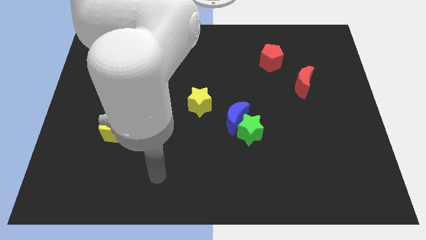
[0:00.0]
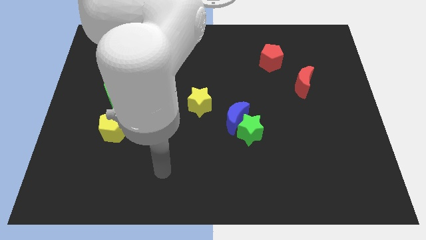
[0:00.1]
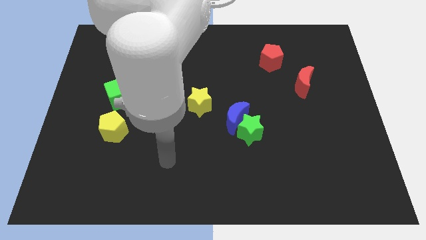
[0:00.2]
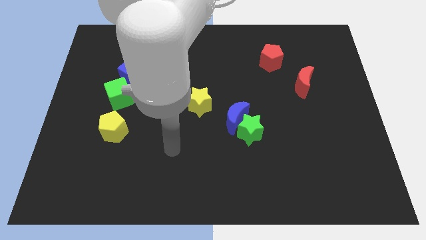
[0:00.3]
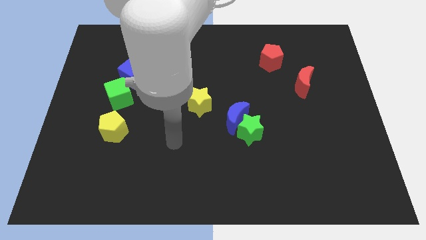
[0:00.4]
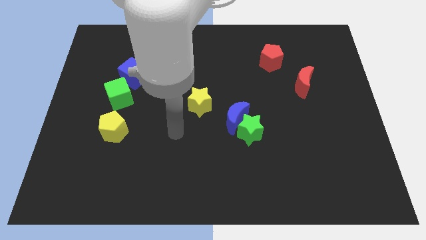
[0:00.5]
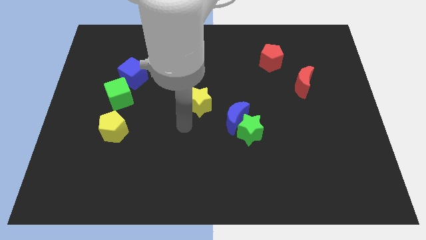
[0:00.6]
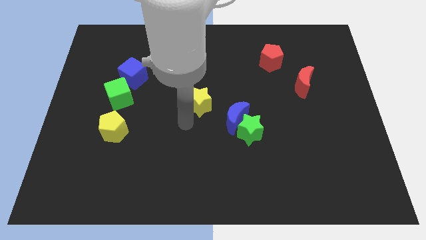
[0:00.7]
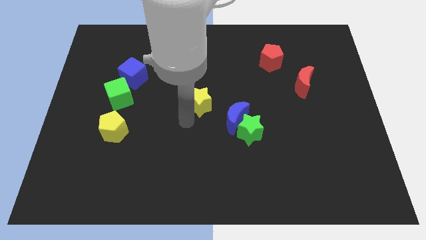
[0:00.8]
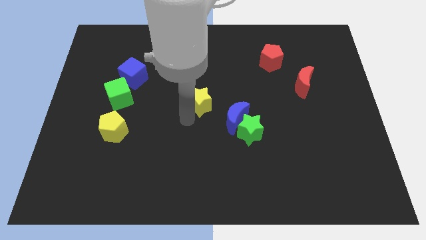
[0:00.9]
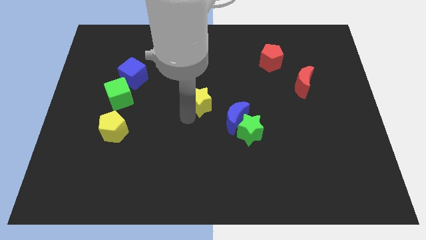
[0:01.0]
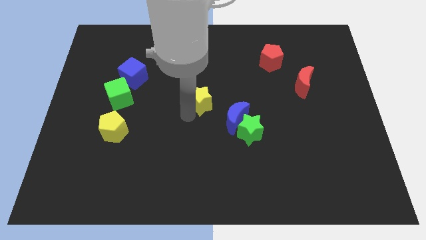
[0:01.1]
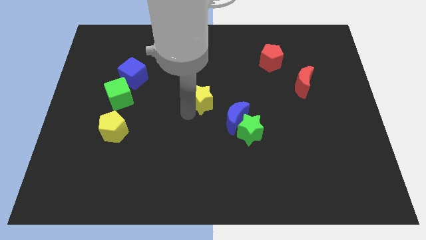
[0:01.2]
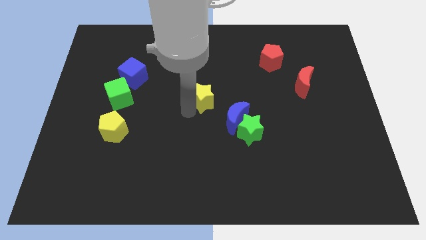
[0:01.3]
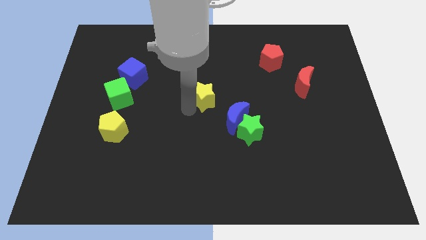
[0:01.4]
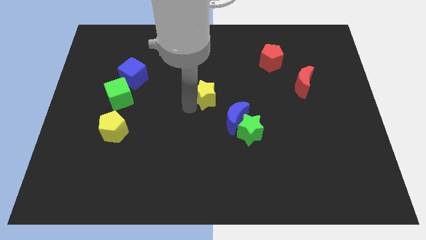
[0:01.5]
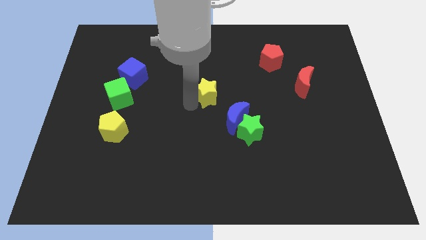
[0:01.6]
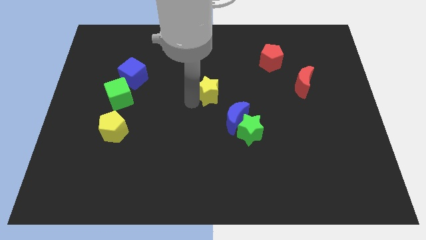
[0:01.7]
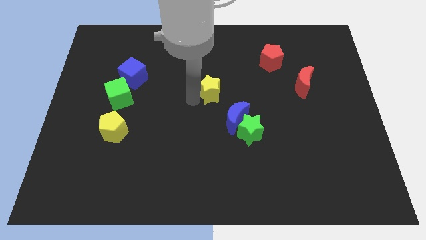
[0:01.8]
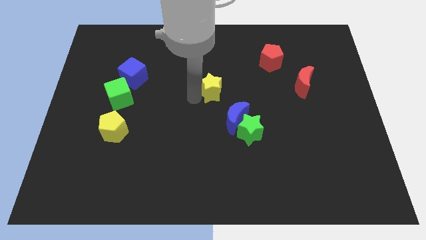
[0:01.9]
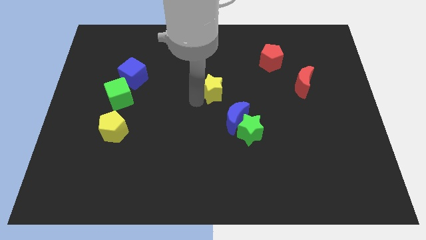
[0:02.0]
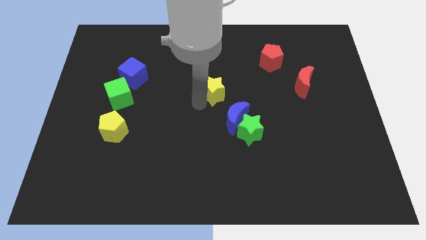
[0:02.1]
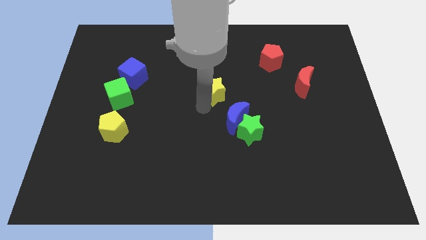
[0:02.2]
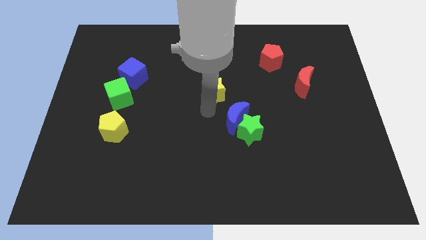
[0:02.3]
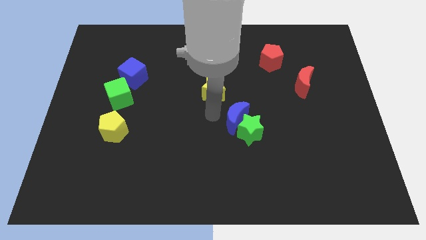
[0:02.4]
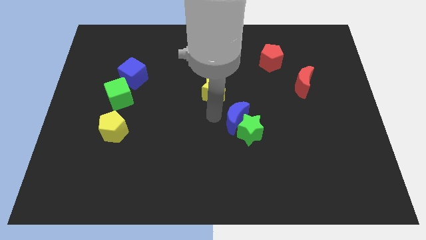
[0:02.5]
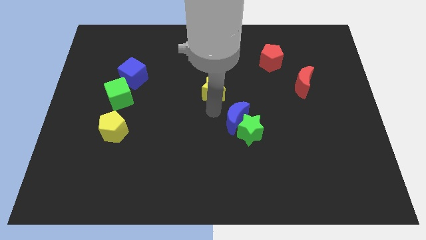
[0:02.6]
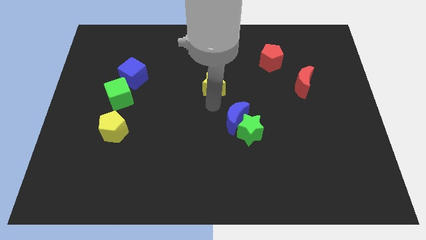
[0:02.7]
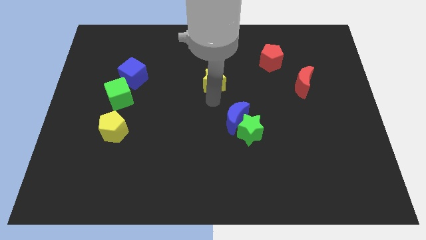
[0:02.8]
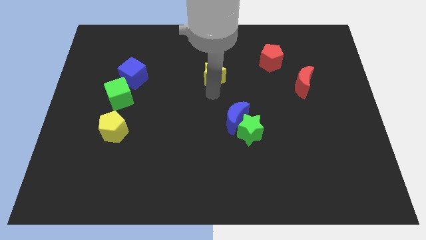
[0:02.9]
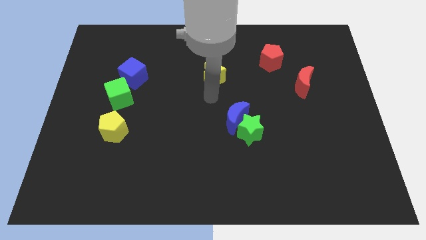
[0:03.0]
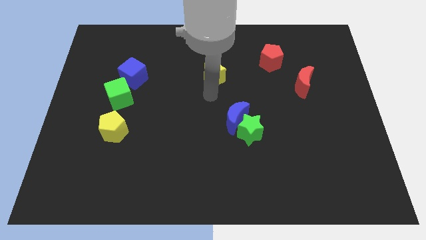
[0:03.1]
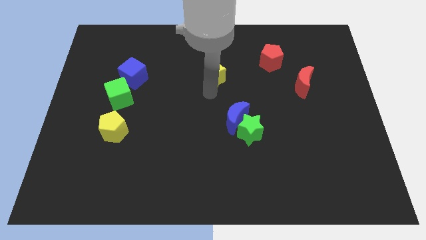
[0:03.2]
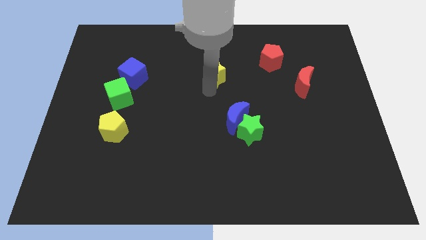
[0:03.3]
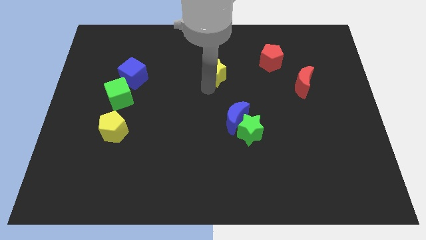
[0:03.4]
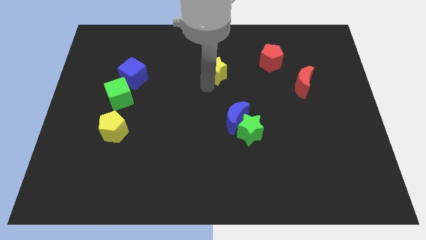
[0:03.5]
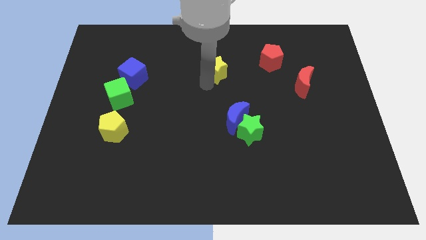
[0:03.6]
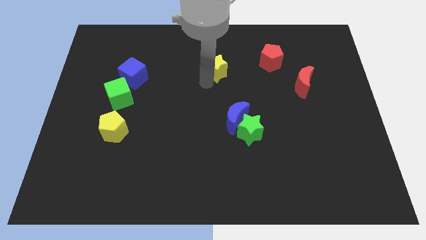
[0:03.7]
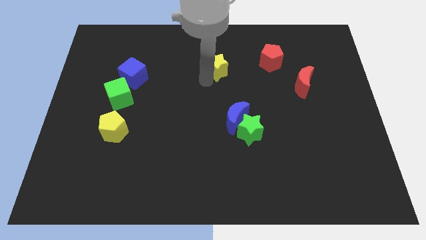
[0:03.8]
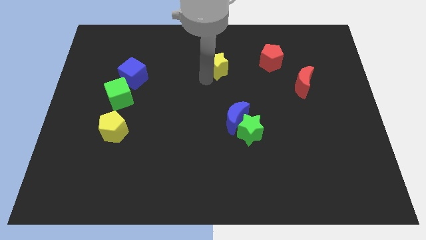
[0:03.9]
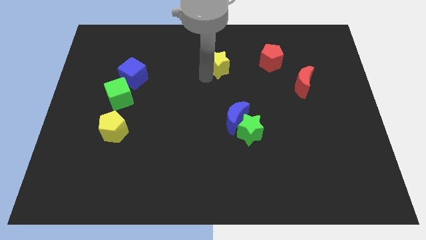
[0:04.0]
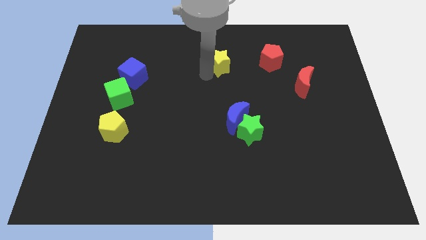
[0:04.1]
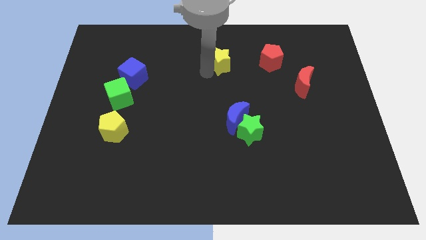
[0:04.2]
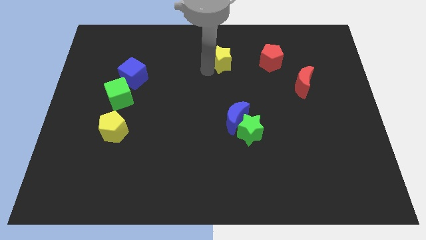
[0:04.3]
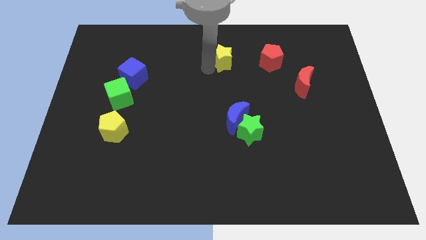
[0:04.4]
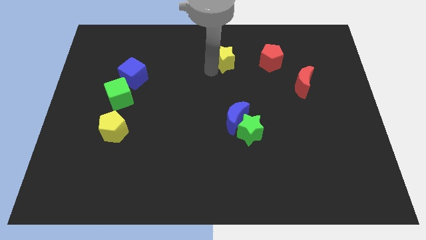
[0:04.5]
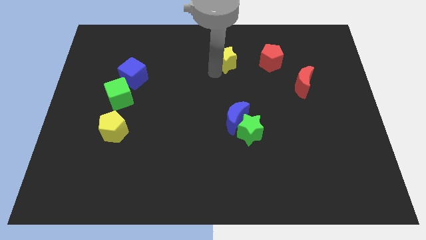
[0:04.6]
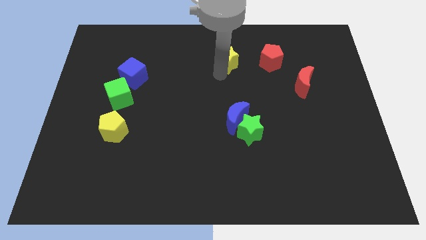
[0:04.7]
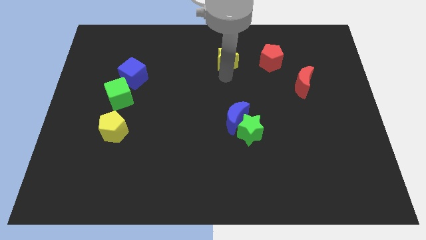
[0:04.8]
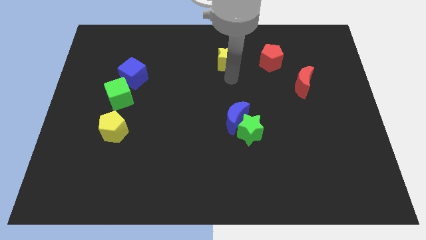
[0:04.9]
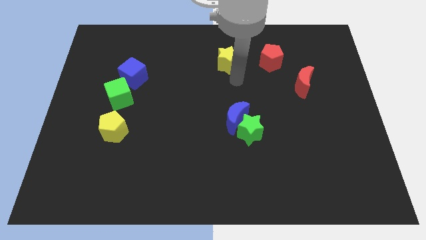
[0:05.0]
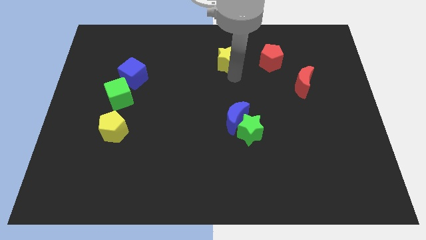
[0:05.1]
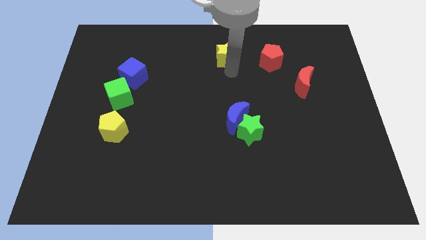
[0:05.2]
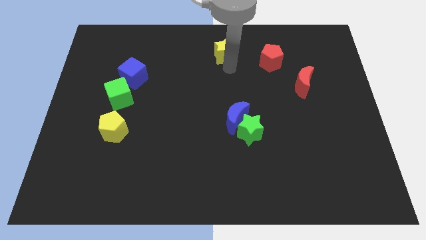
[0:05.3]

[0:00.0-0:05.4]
slide the yellow star to the towards your base

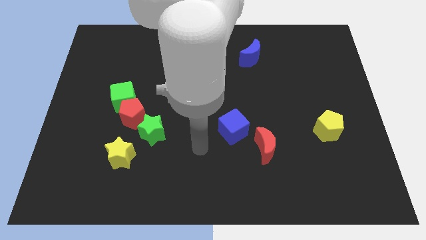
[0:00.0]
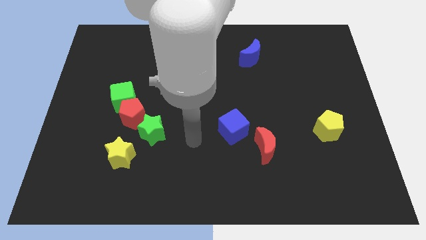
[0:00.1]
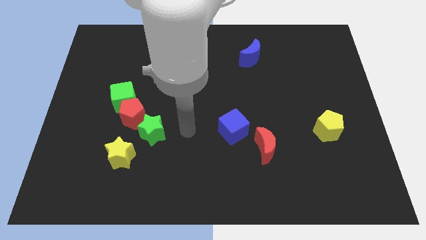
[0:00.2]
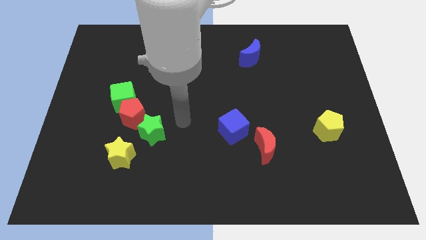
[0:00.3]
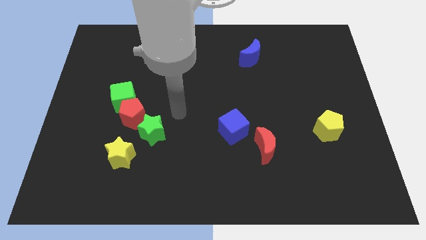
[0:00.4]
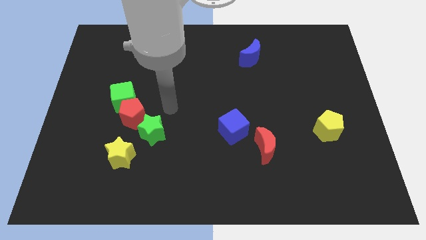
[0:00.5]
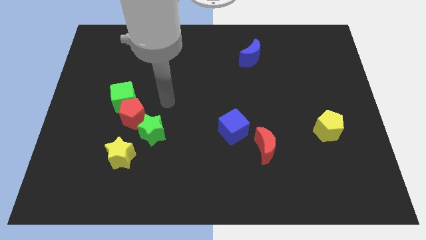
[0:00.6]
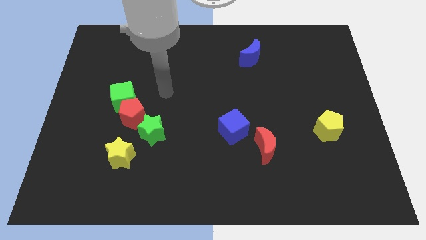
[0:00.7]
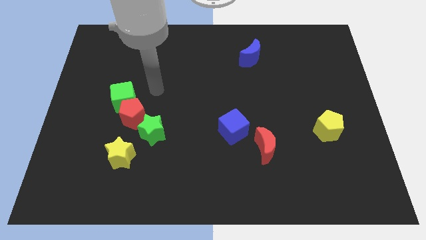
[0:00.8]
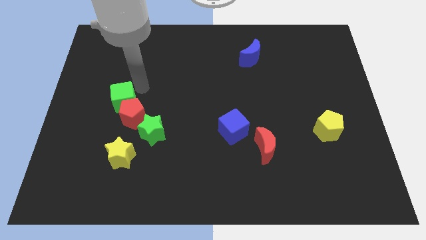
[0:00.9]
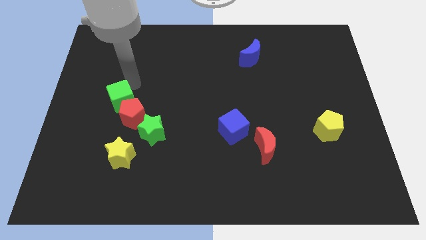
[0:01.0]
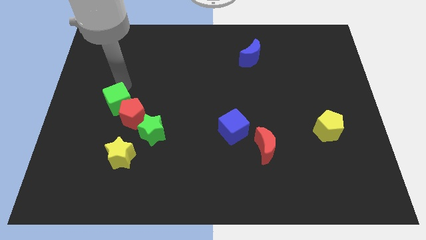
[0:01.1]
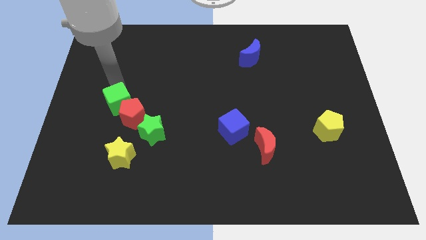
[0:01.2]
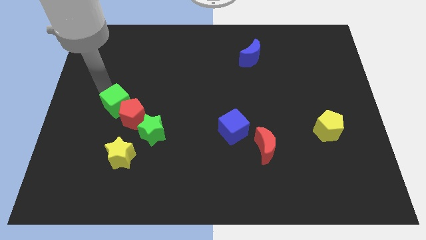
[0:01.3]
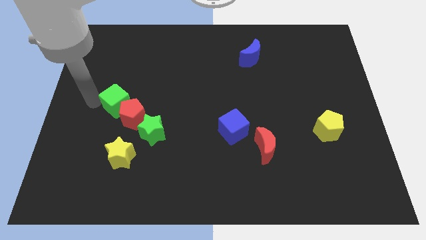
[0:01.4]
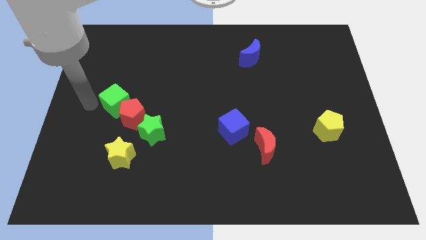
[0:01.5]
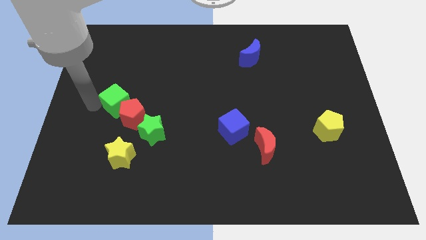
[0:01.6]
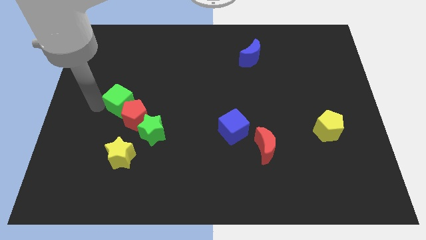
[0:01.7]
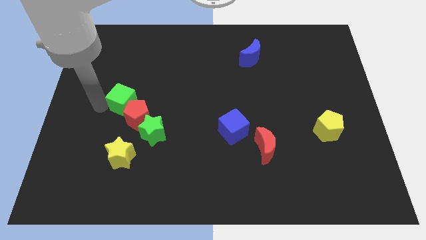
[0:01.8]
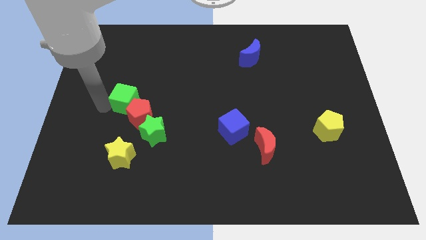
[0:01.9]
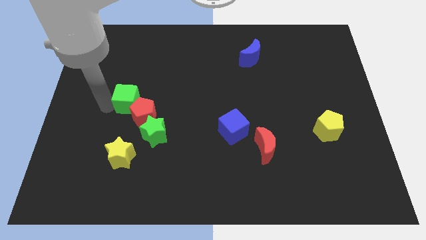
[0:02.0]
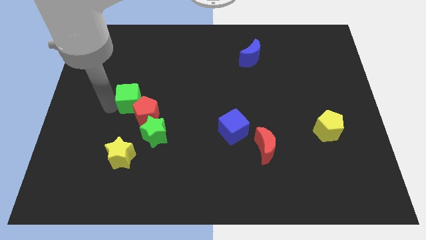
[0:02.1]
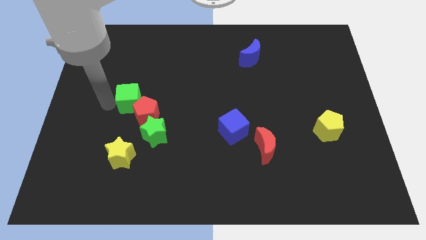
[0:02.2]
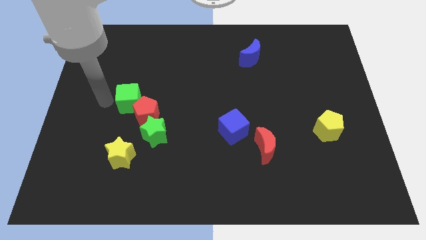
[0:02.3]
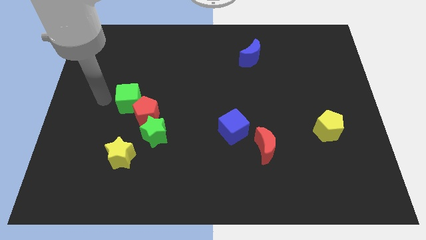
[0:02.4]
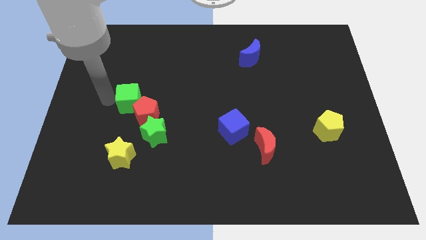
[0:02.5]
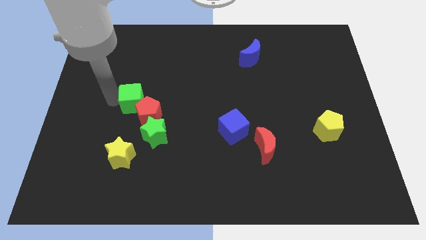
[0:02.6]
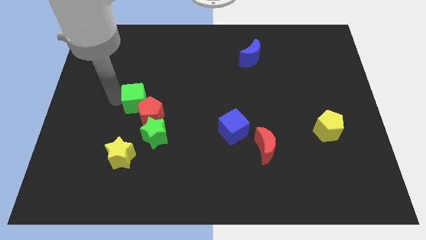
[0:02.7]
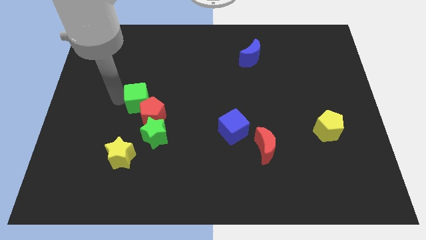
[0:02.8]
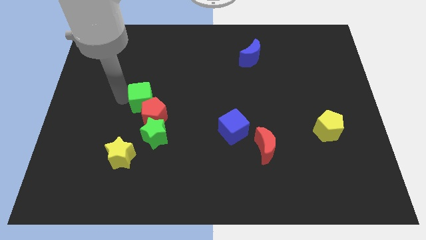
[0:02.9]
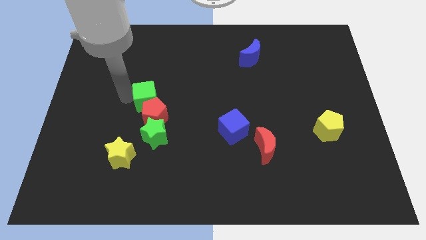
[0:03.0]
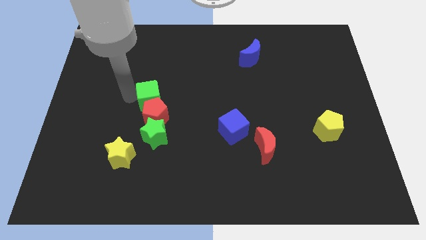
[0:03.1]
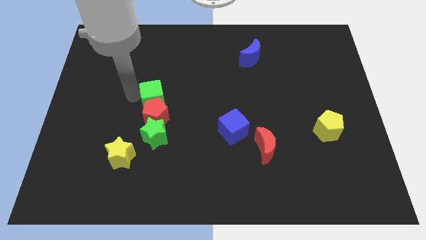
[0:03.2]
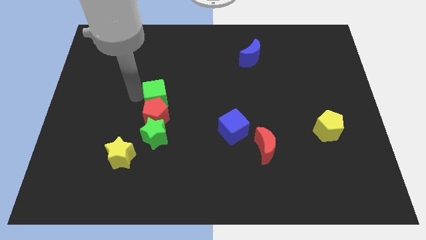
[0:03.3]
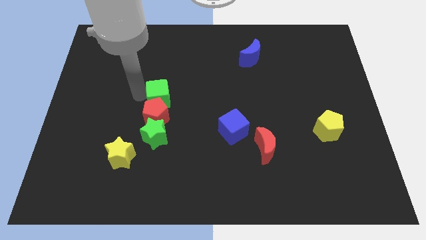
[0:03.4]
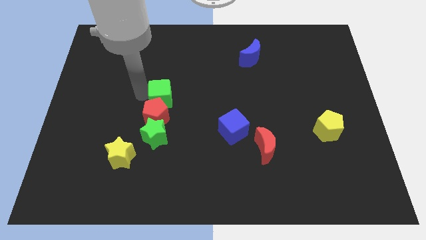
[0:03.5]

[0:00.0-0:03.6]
slide the green cube to the middle of the board
